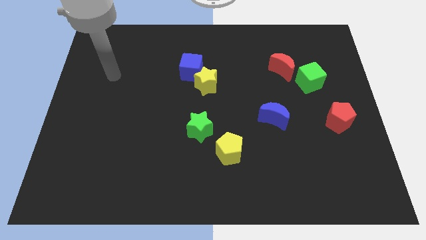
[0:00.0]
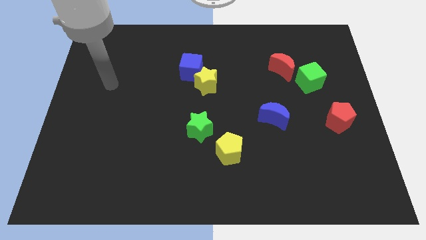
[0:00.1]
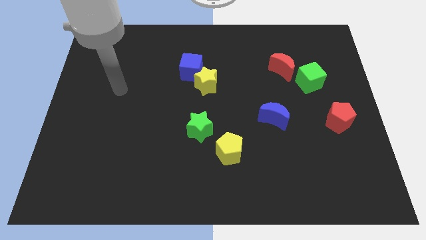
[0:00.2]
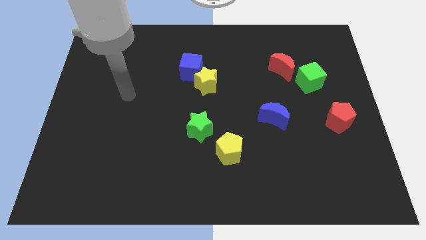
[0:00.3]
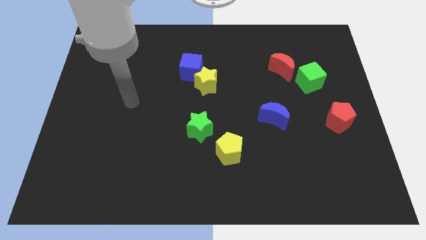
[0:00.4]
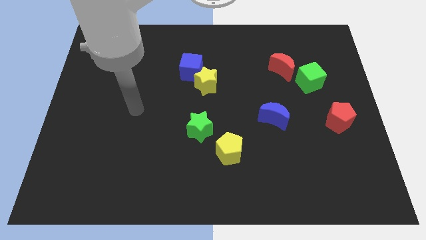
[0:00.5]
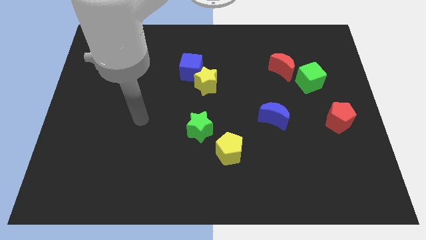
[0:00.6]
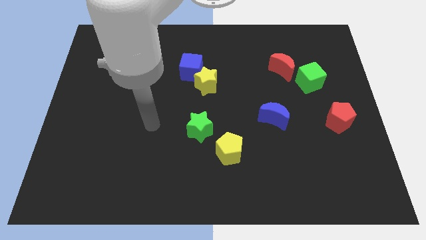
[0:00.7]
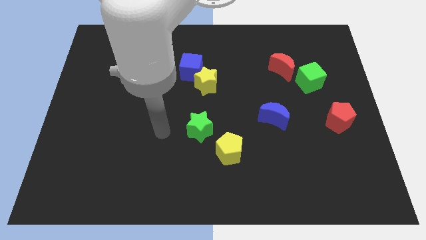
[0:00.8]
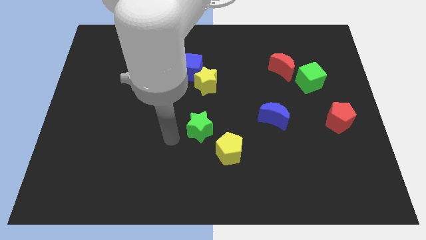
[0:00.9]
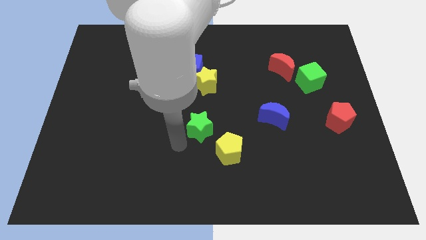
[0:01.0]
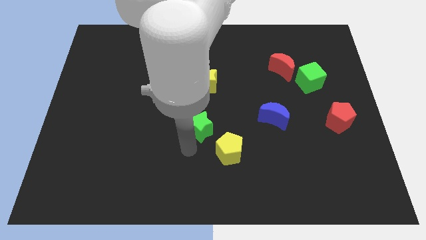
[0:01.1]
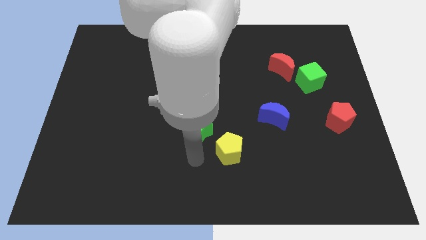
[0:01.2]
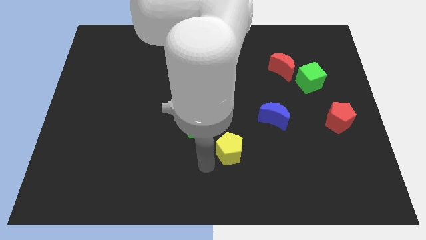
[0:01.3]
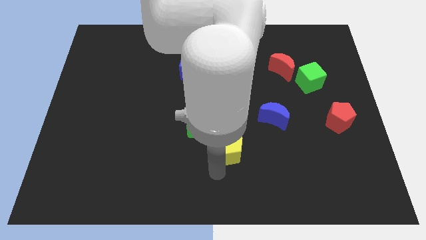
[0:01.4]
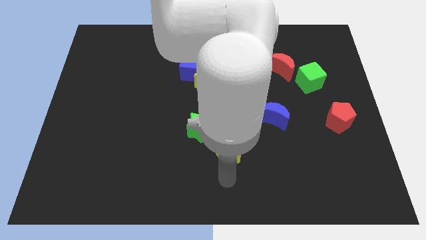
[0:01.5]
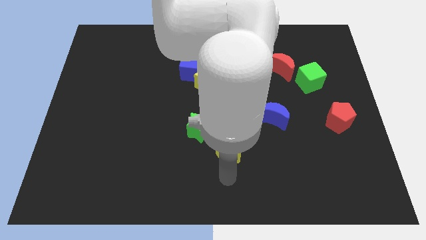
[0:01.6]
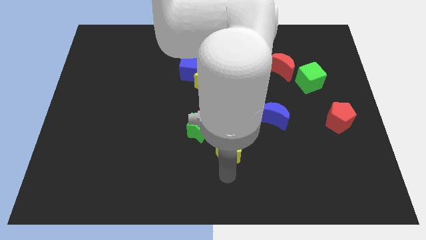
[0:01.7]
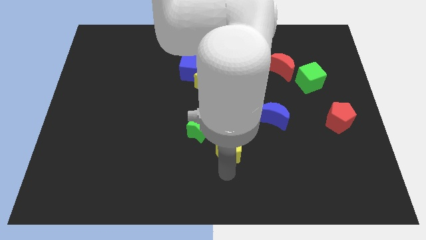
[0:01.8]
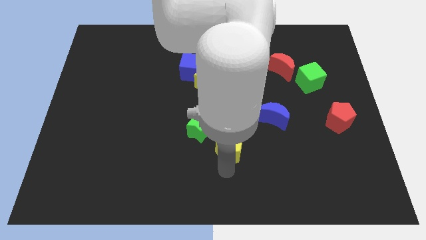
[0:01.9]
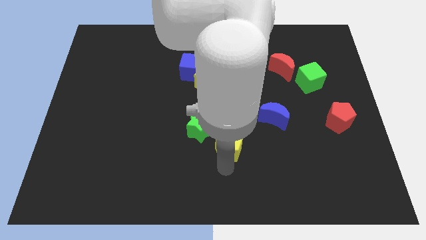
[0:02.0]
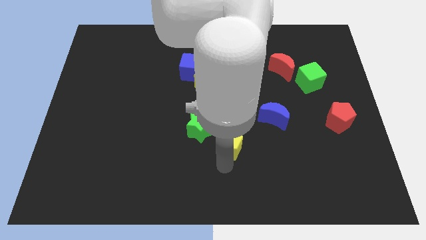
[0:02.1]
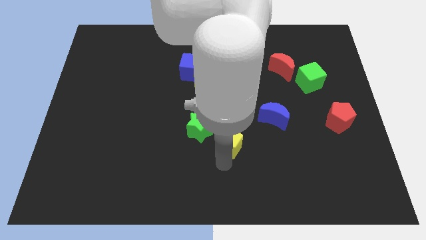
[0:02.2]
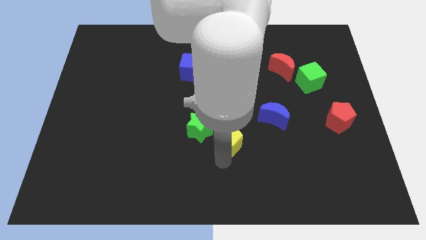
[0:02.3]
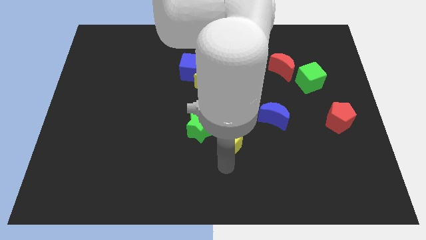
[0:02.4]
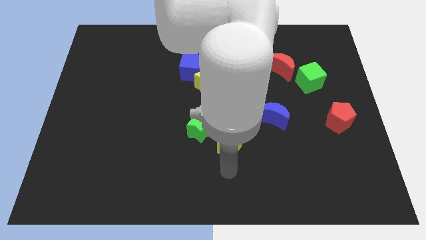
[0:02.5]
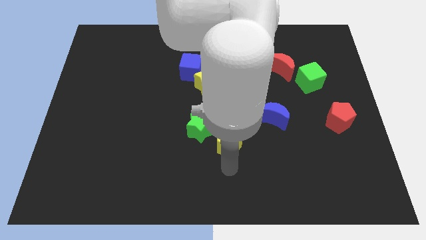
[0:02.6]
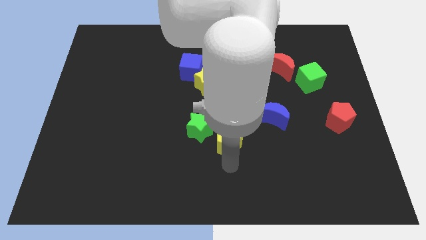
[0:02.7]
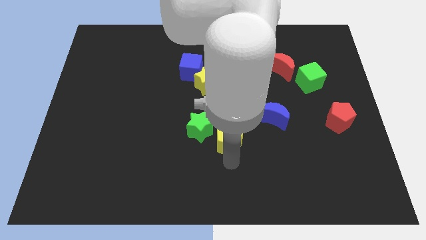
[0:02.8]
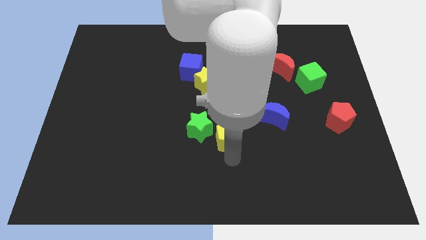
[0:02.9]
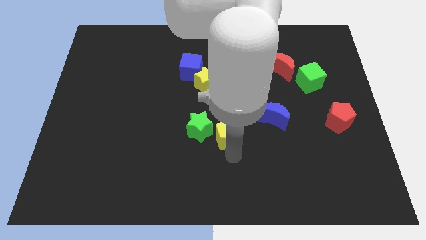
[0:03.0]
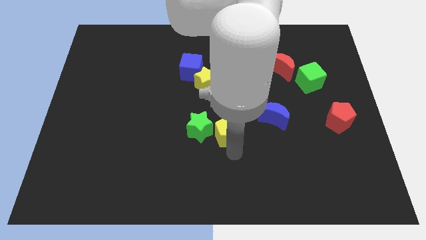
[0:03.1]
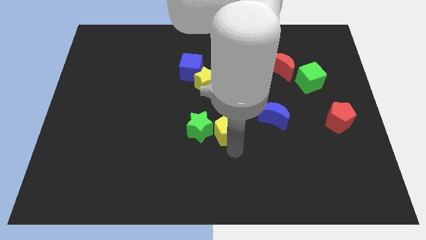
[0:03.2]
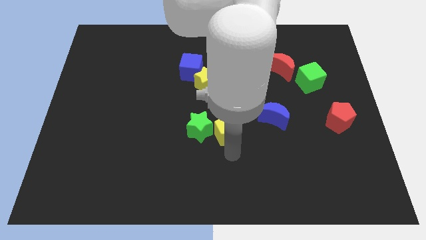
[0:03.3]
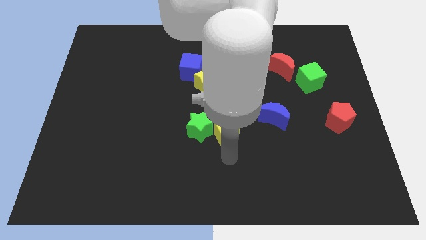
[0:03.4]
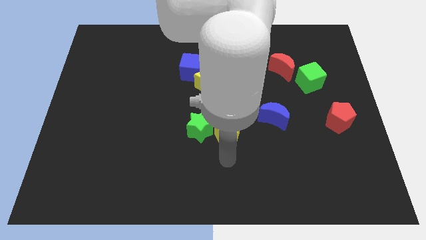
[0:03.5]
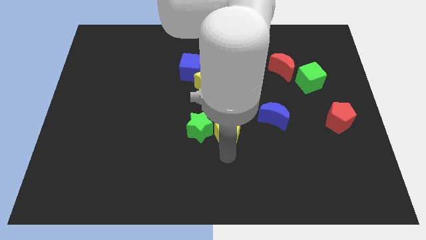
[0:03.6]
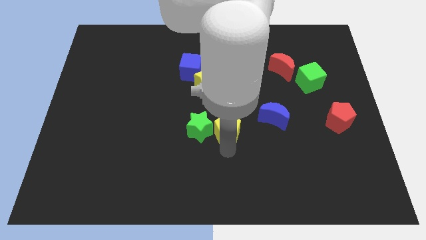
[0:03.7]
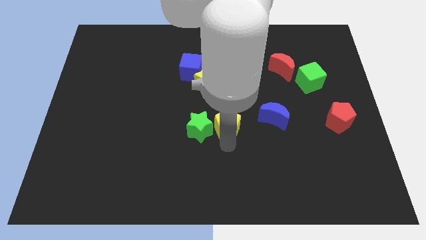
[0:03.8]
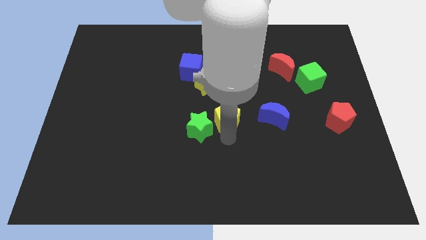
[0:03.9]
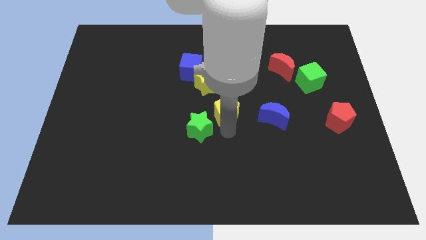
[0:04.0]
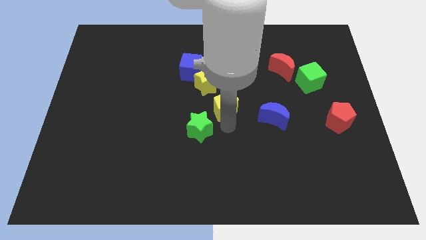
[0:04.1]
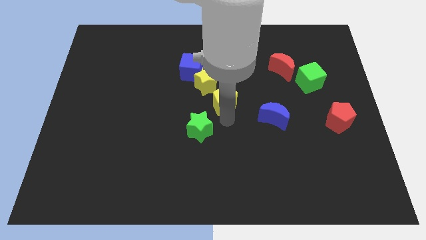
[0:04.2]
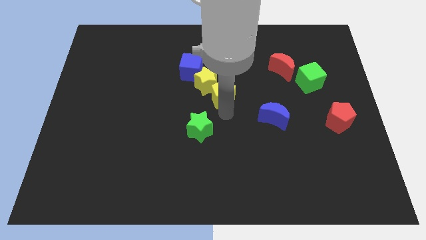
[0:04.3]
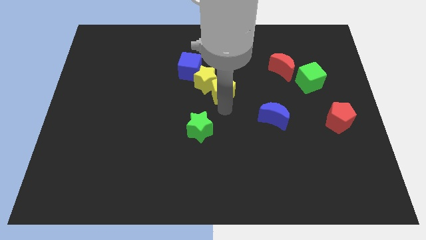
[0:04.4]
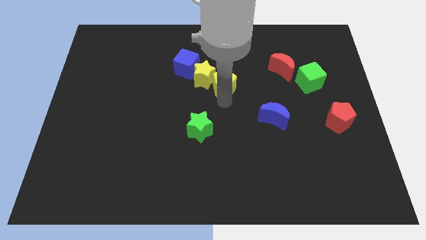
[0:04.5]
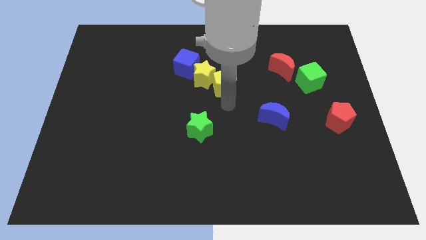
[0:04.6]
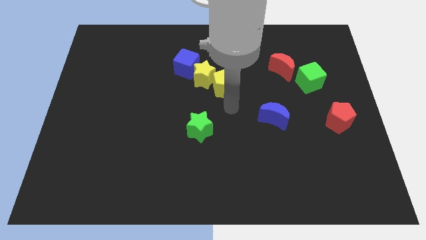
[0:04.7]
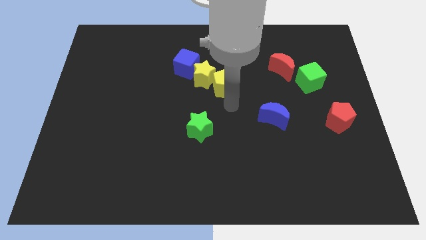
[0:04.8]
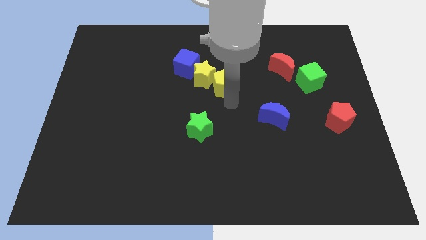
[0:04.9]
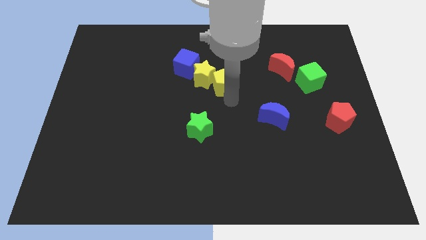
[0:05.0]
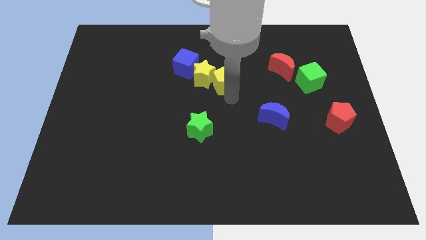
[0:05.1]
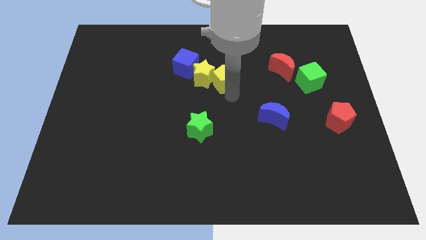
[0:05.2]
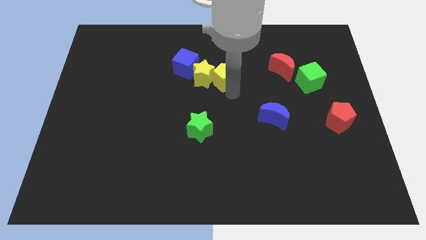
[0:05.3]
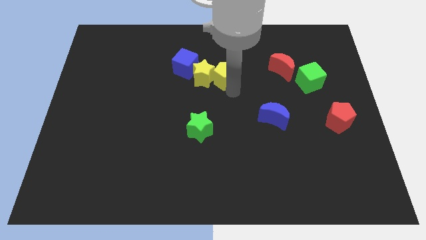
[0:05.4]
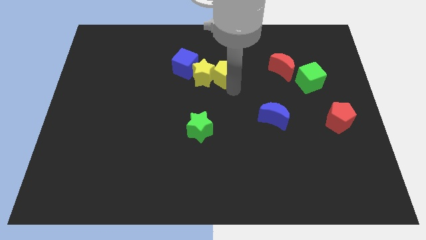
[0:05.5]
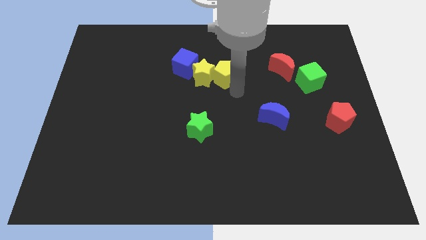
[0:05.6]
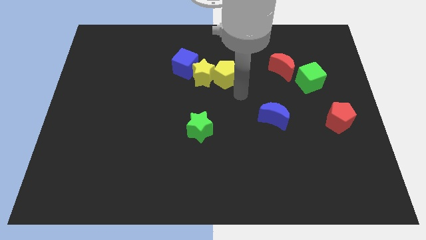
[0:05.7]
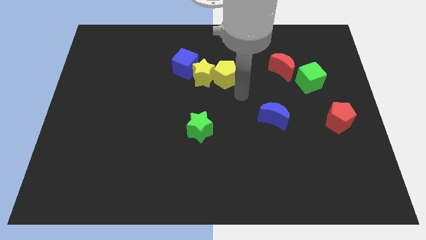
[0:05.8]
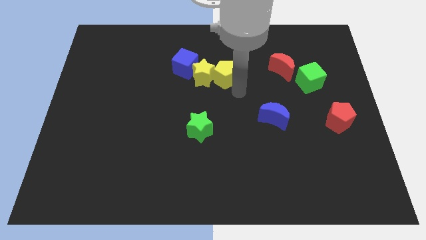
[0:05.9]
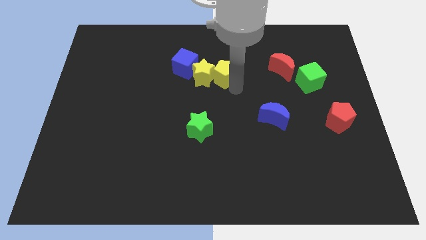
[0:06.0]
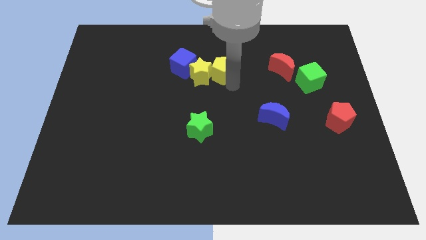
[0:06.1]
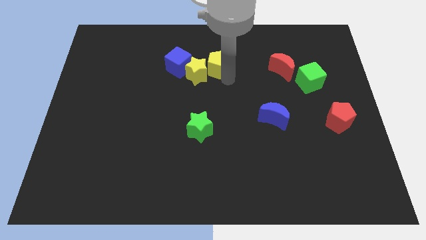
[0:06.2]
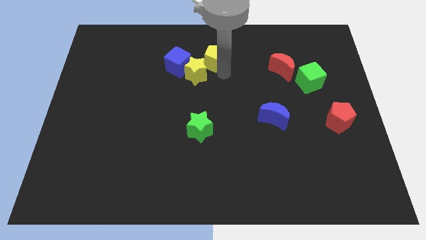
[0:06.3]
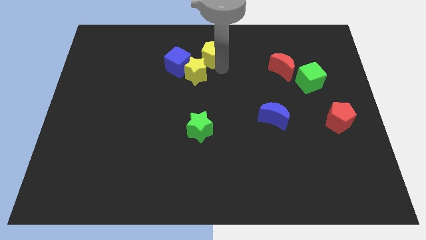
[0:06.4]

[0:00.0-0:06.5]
move the yellow pentagon diagonally up and to the right of the blue cube

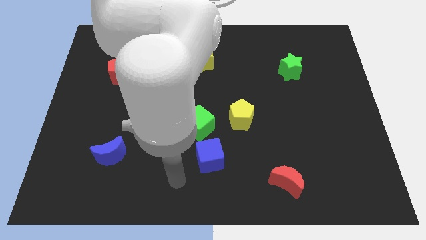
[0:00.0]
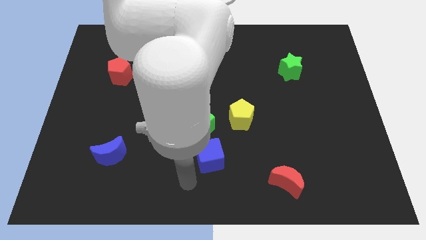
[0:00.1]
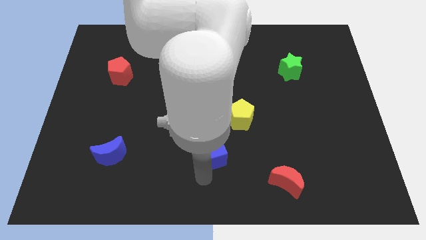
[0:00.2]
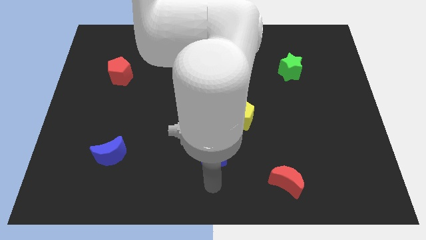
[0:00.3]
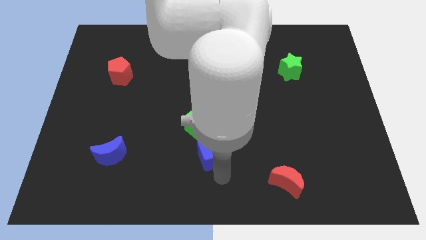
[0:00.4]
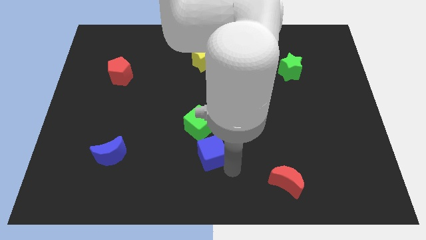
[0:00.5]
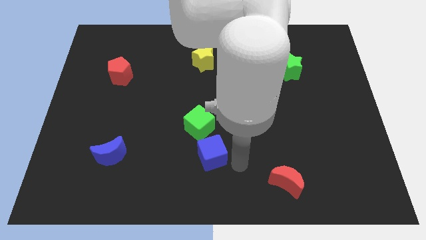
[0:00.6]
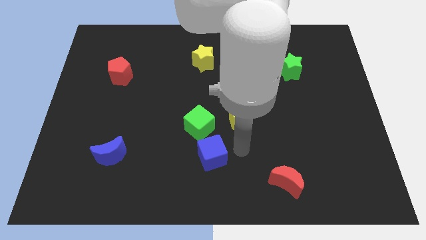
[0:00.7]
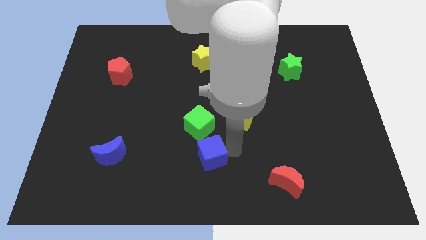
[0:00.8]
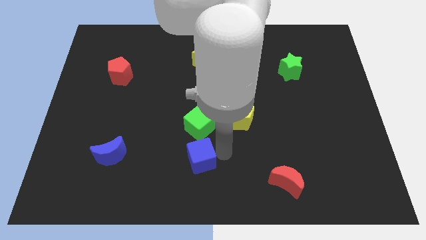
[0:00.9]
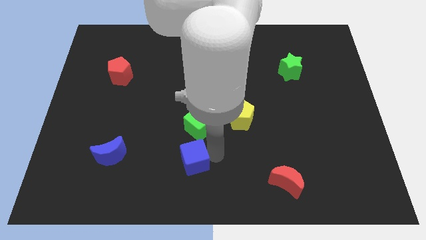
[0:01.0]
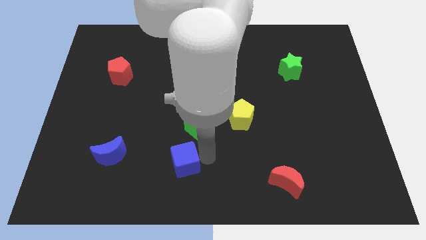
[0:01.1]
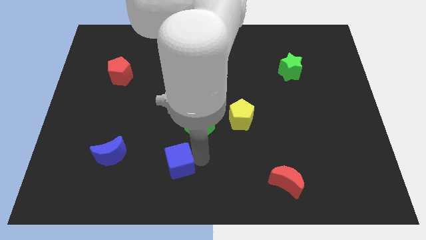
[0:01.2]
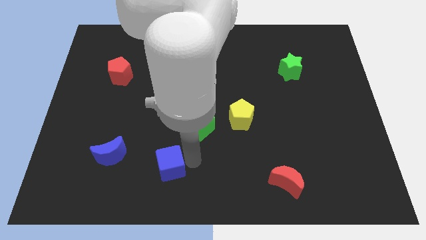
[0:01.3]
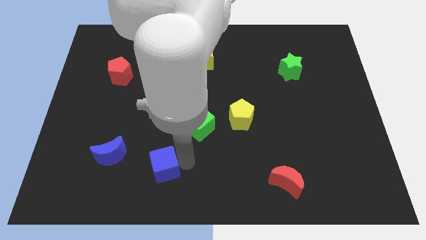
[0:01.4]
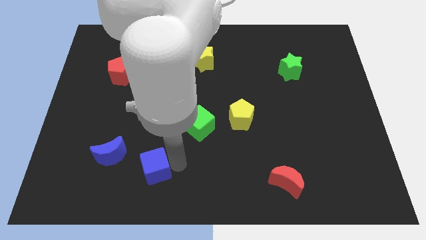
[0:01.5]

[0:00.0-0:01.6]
put the blue cube to the bottom right side of the blue moon
